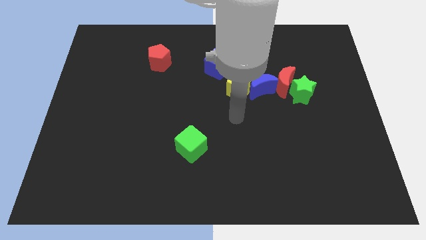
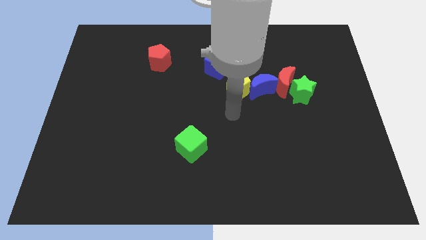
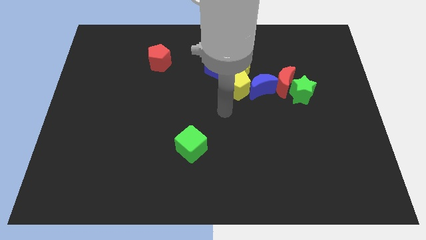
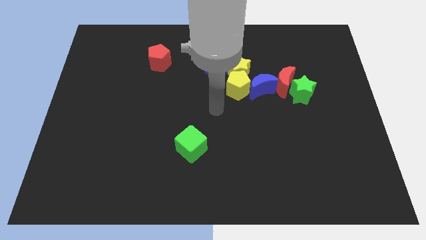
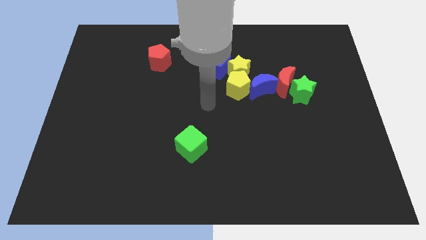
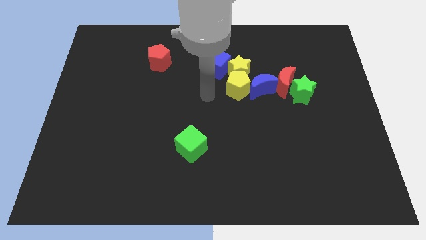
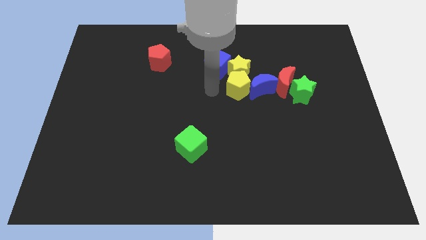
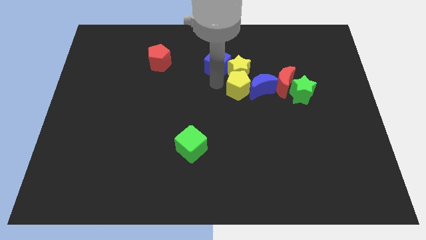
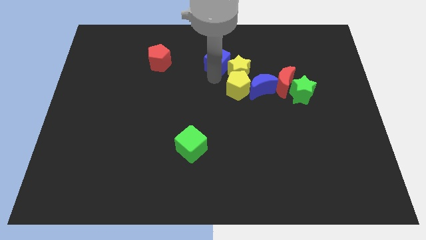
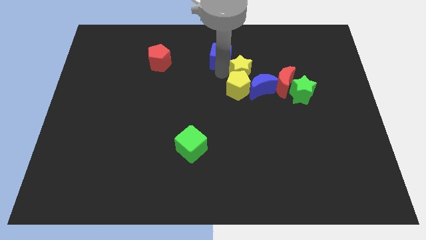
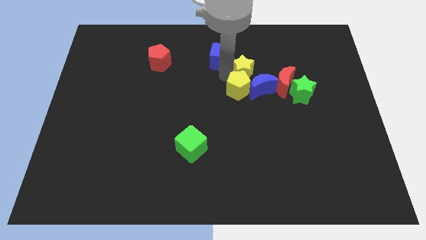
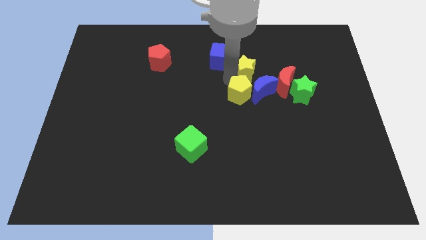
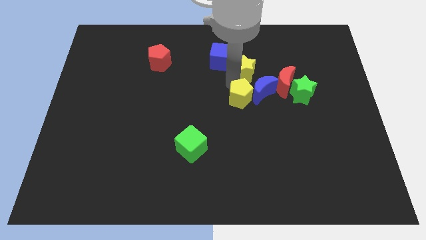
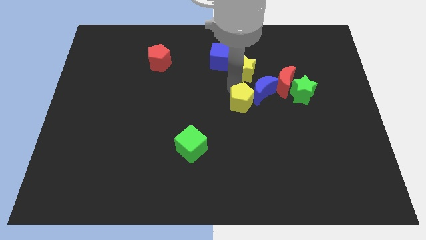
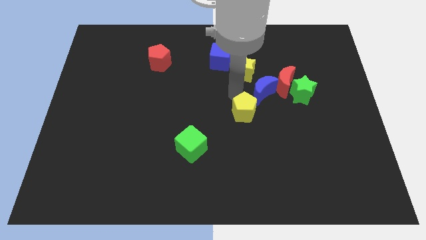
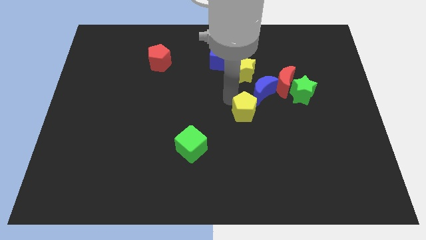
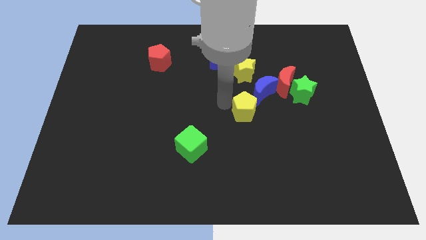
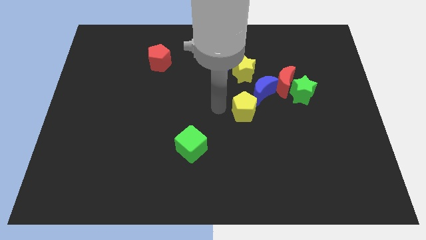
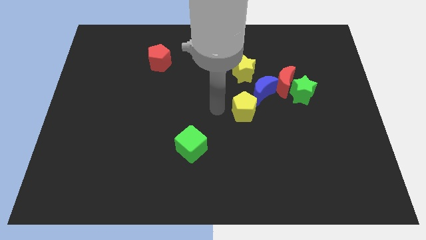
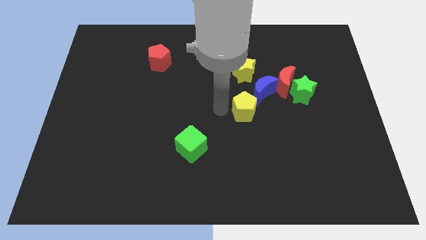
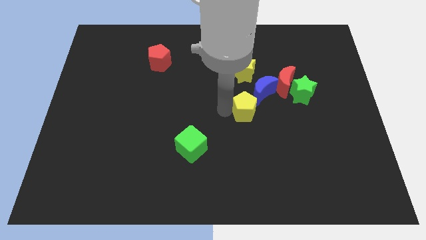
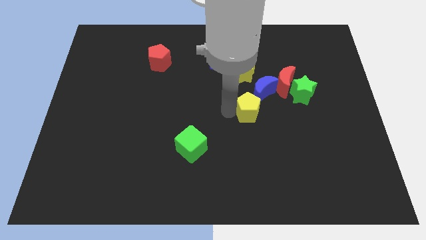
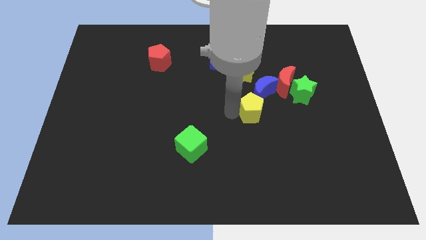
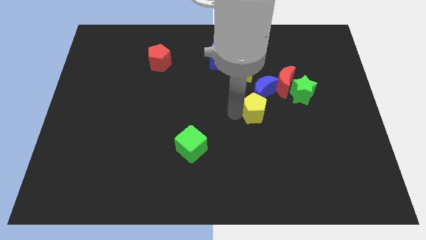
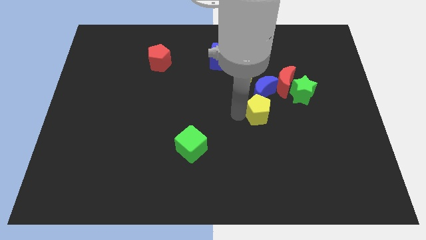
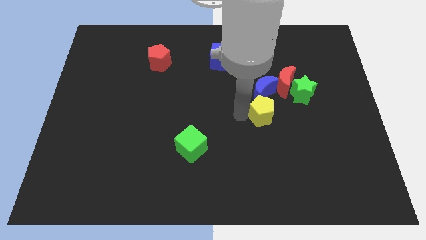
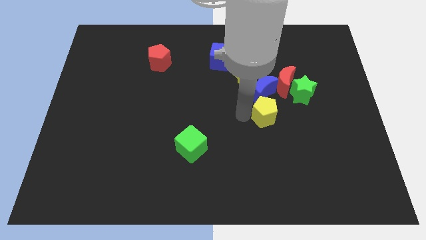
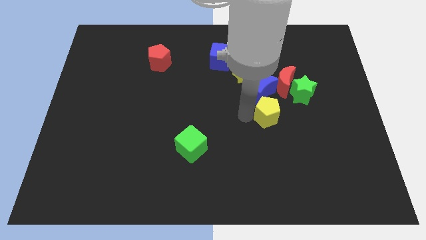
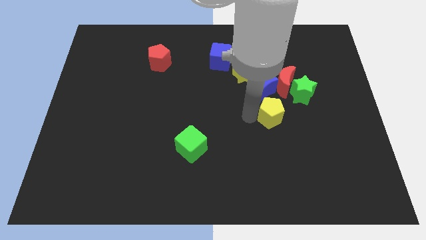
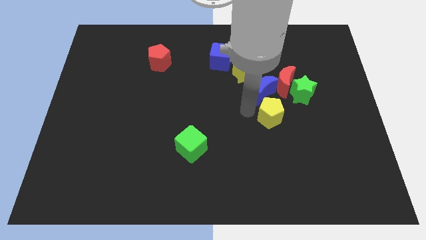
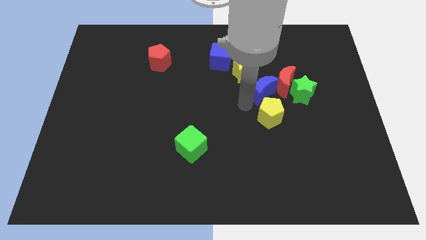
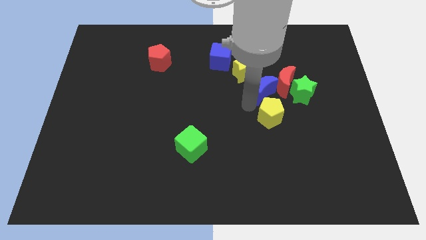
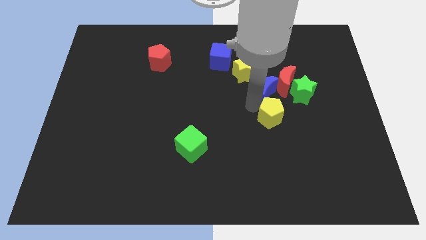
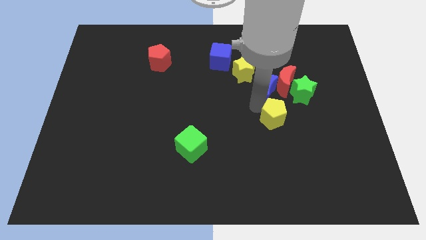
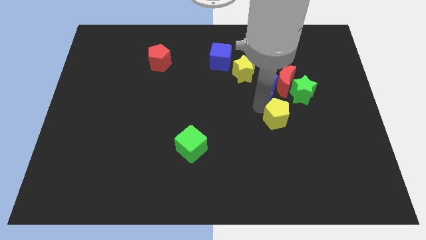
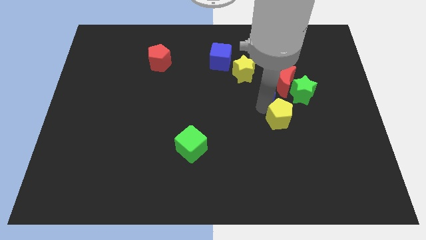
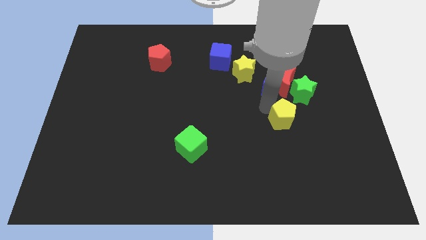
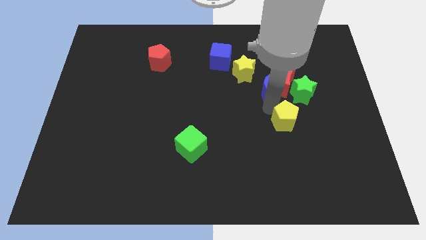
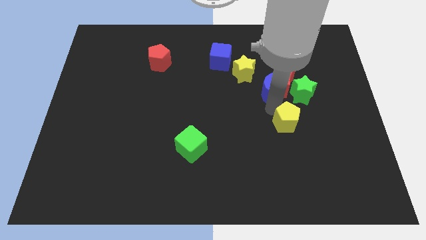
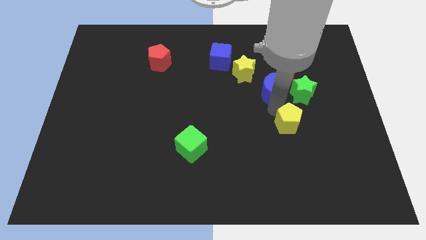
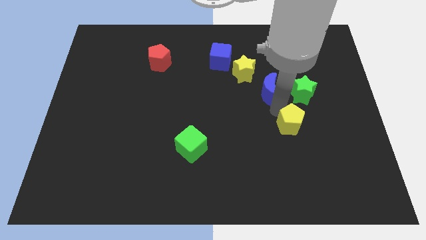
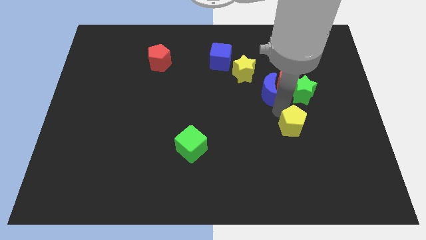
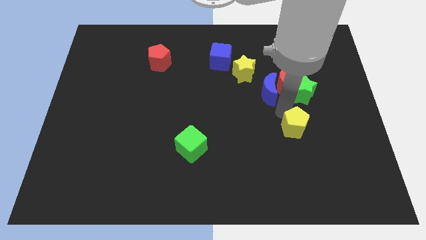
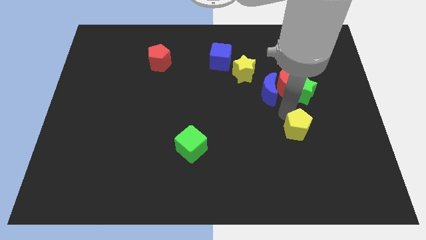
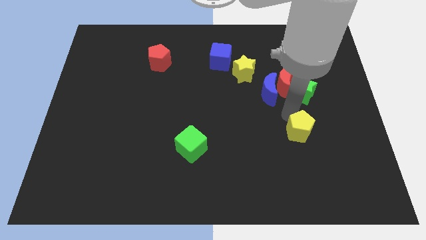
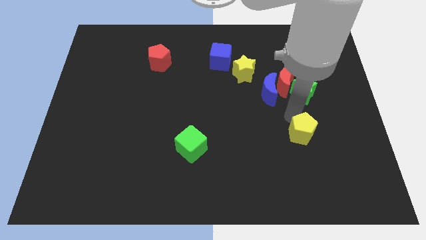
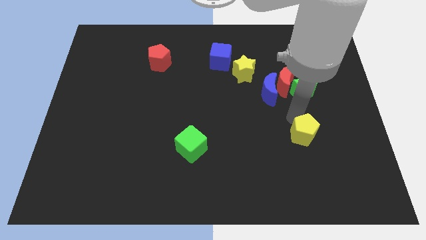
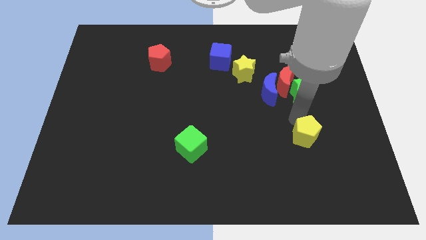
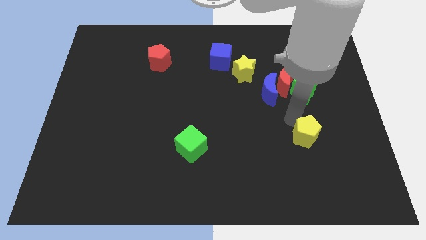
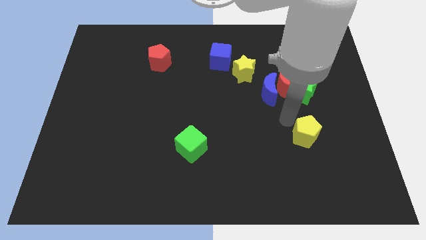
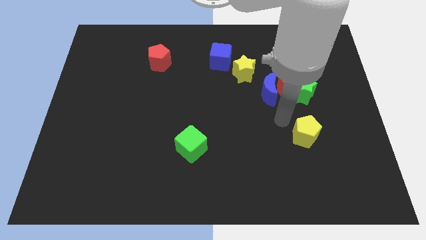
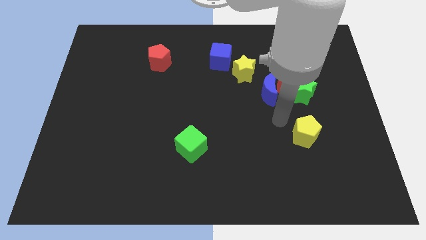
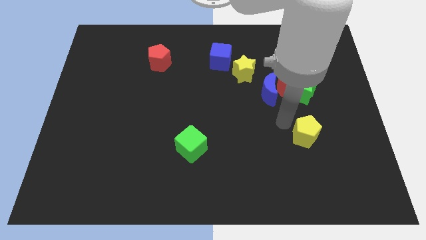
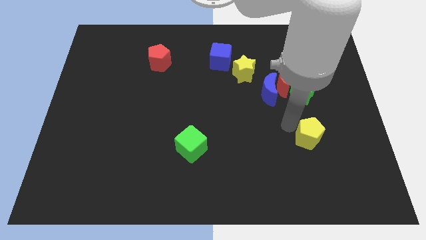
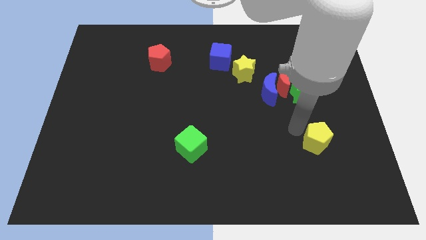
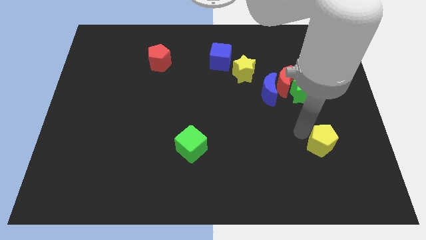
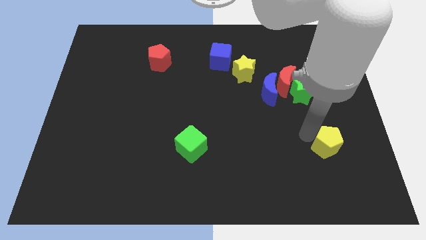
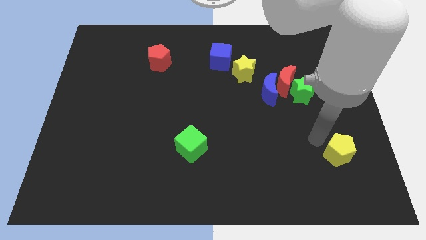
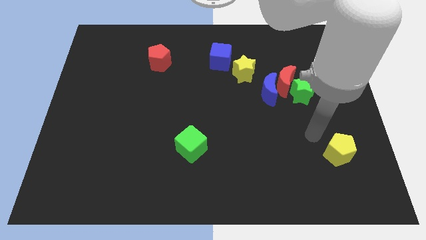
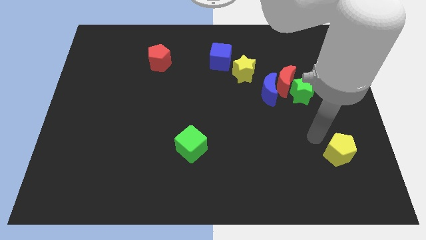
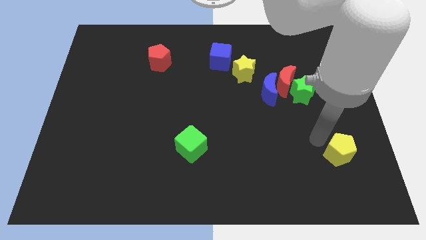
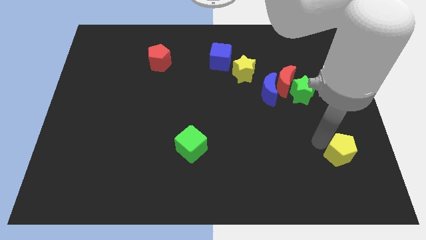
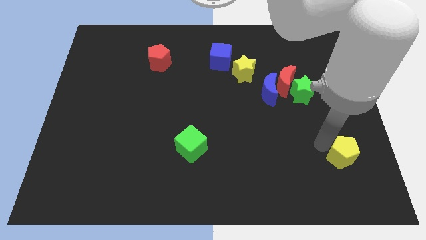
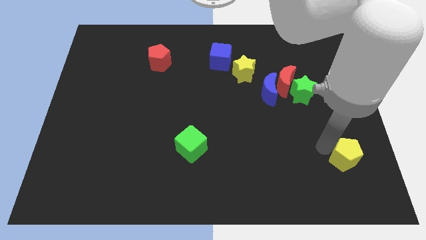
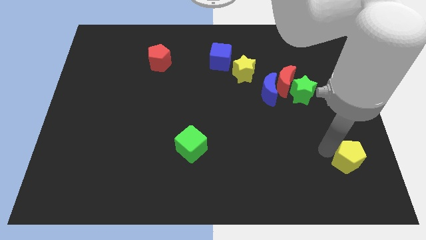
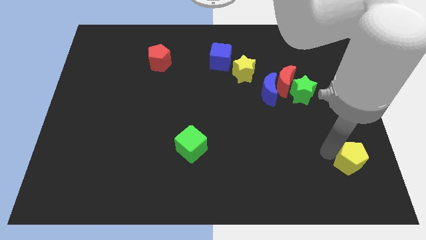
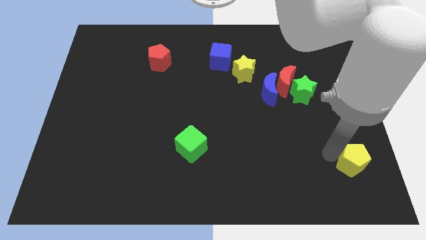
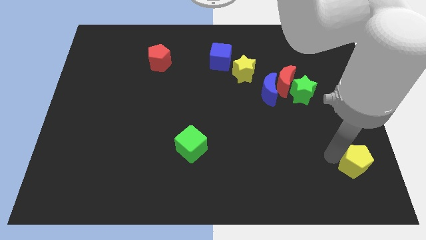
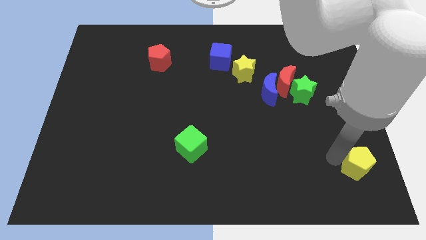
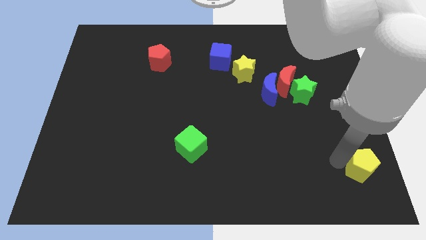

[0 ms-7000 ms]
push the yellow pentagon to the bottom right corner
